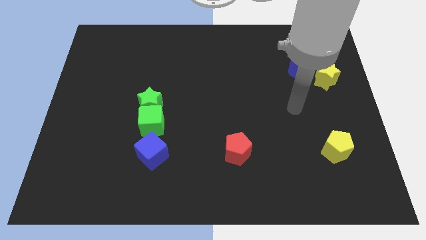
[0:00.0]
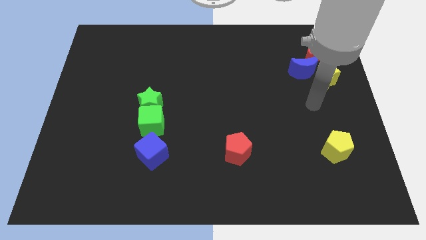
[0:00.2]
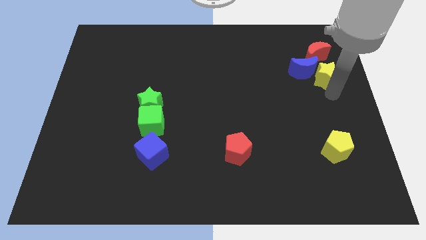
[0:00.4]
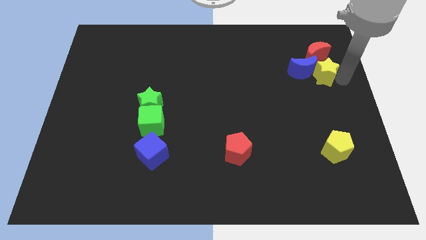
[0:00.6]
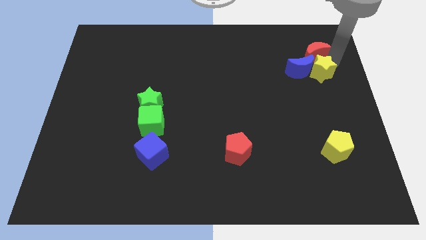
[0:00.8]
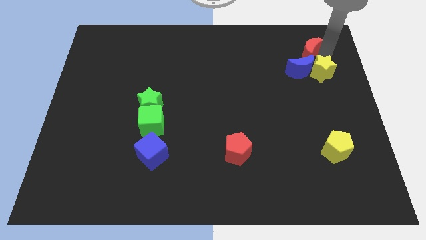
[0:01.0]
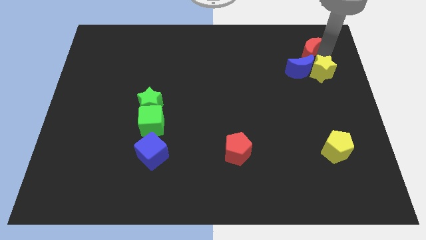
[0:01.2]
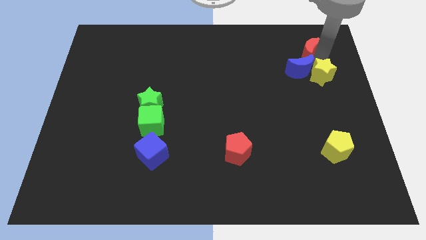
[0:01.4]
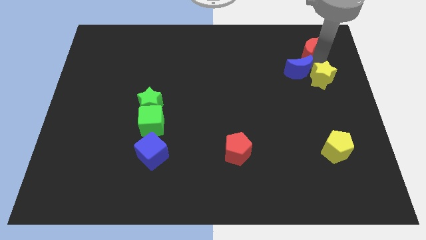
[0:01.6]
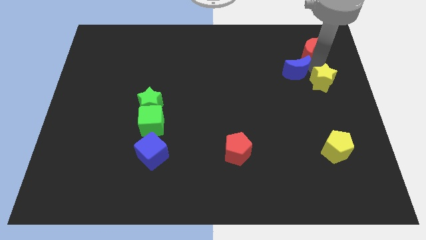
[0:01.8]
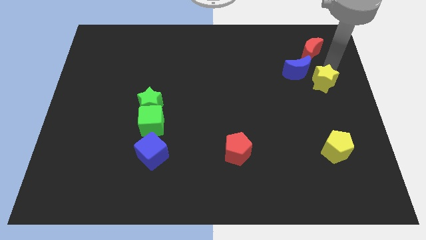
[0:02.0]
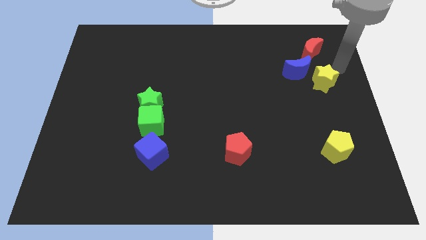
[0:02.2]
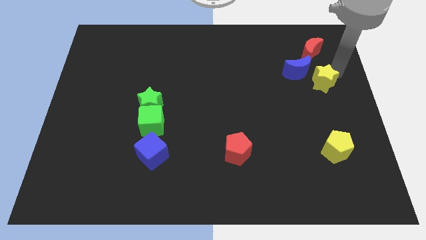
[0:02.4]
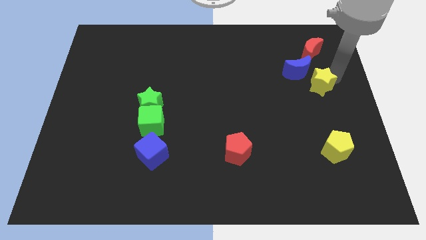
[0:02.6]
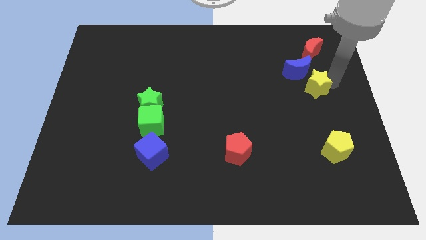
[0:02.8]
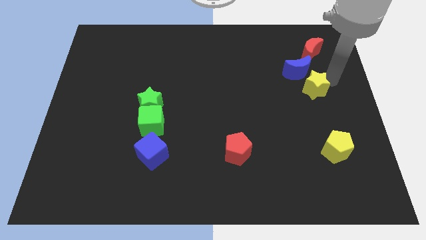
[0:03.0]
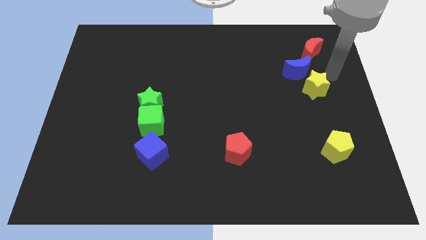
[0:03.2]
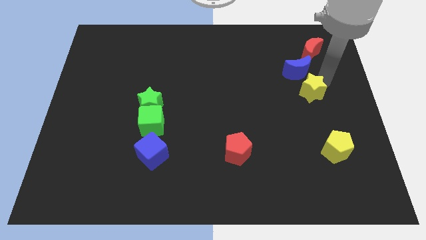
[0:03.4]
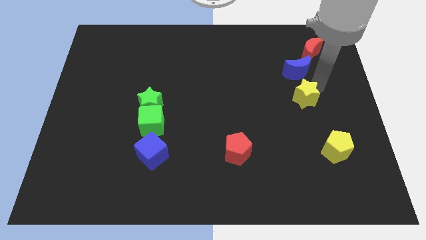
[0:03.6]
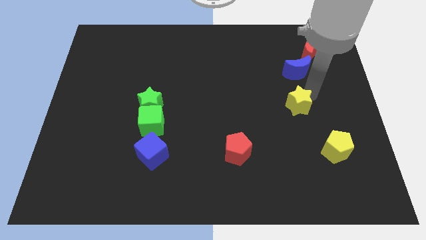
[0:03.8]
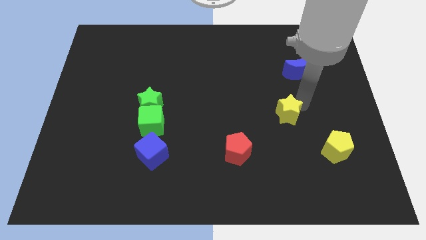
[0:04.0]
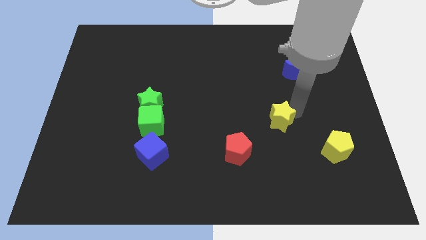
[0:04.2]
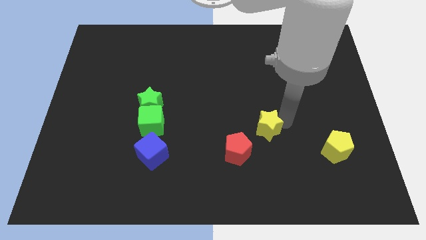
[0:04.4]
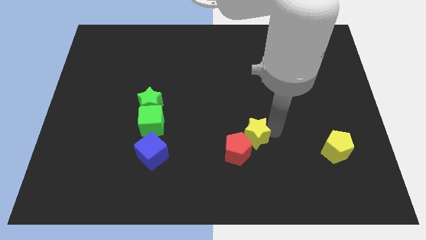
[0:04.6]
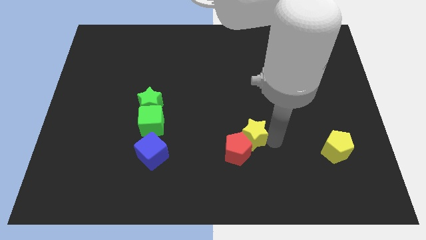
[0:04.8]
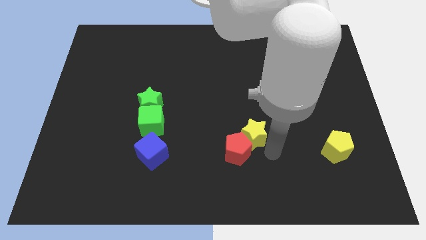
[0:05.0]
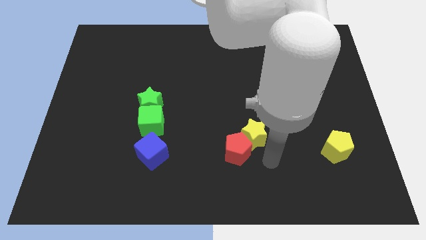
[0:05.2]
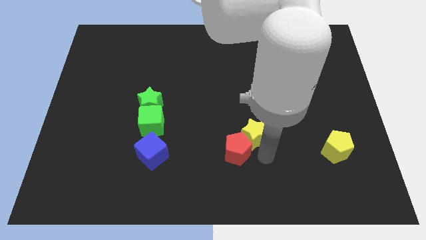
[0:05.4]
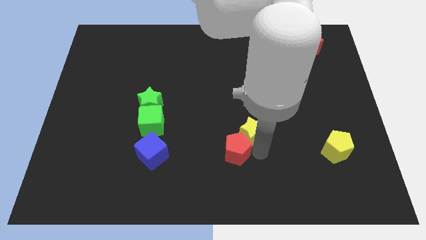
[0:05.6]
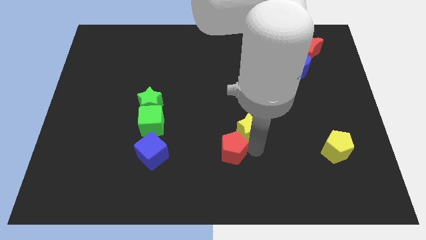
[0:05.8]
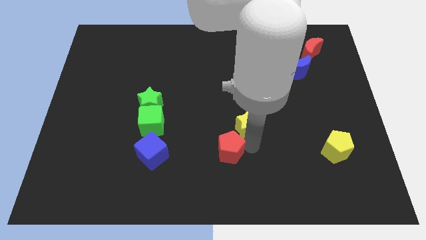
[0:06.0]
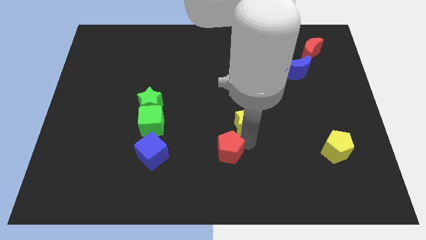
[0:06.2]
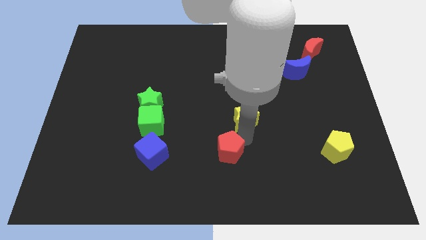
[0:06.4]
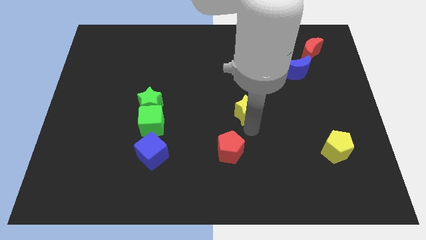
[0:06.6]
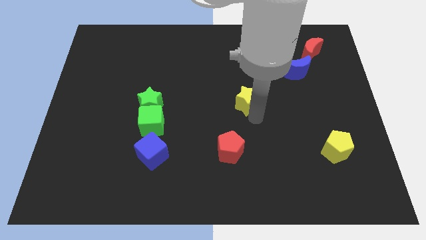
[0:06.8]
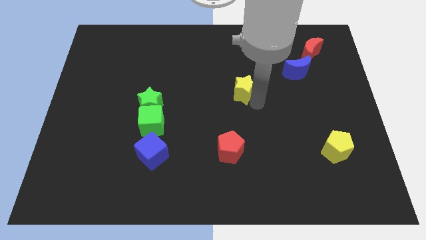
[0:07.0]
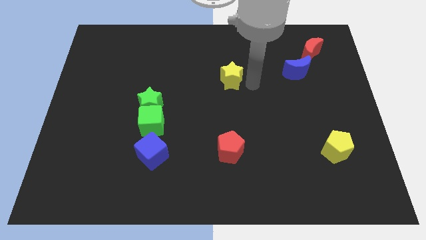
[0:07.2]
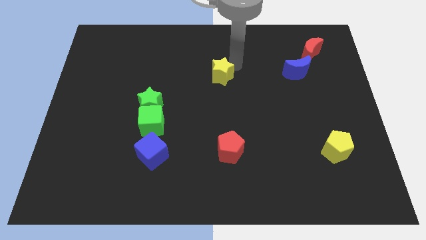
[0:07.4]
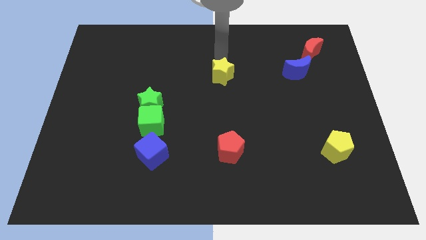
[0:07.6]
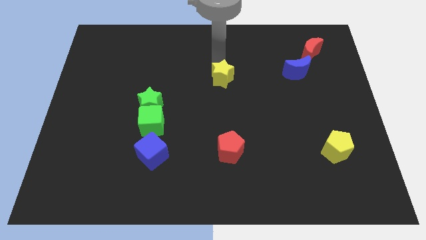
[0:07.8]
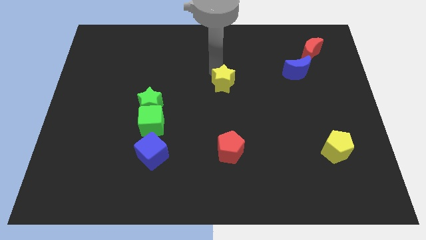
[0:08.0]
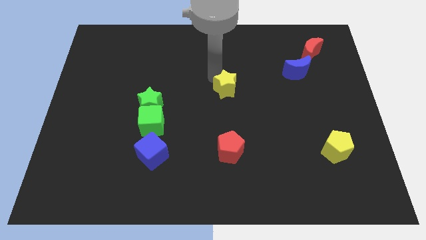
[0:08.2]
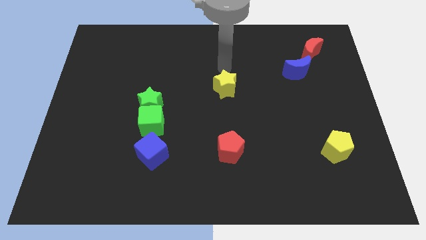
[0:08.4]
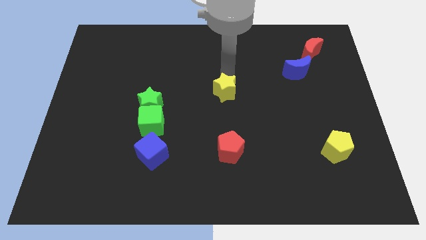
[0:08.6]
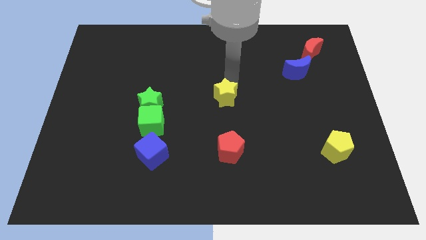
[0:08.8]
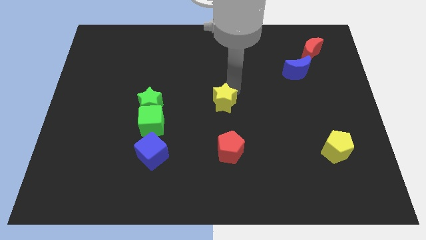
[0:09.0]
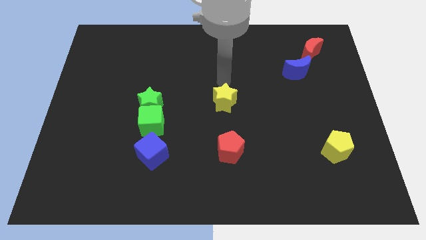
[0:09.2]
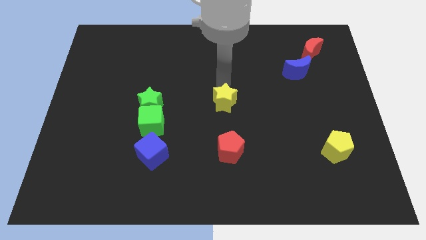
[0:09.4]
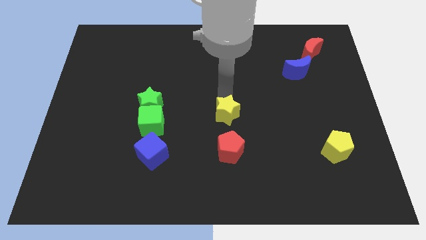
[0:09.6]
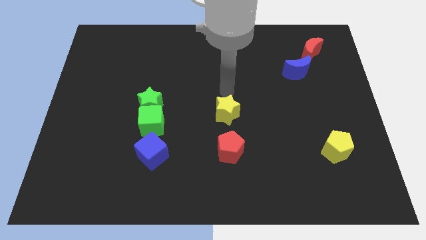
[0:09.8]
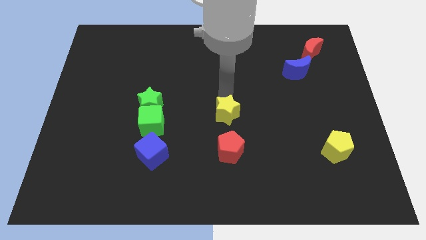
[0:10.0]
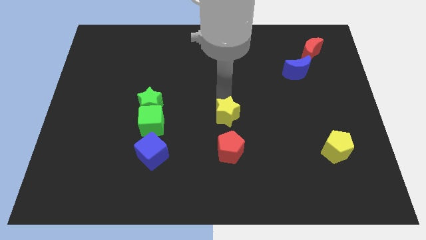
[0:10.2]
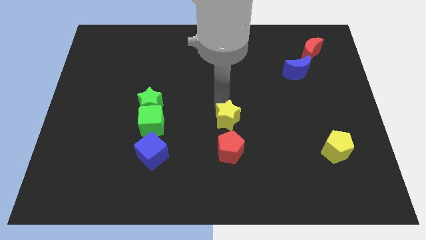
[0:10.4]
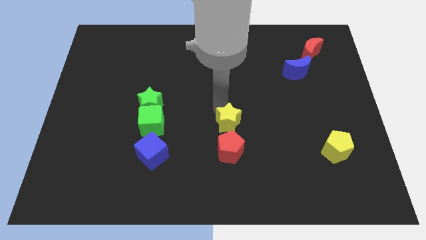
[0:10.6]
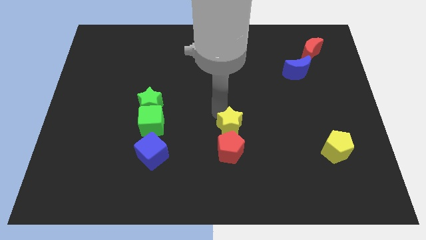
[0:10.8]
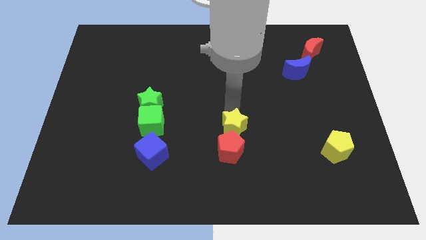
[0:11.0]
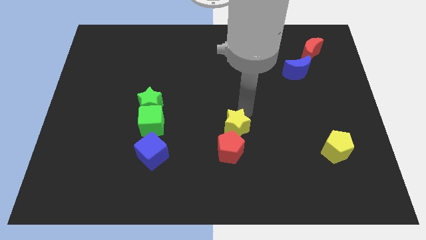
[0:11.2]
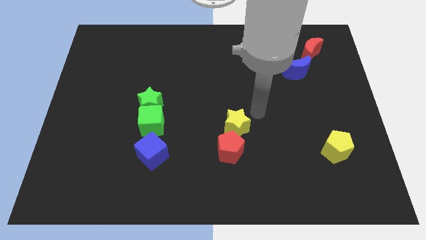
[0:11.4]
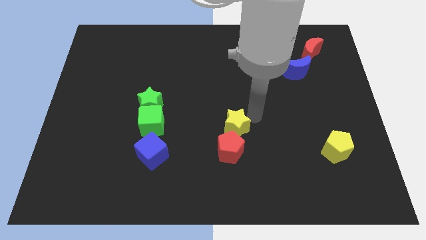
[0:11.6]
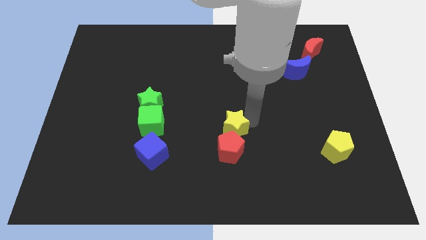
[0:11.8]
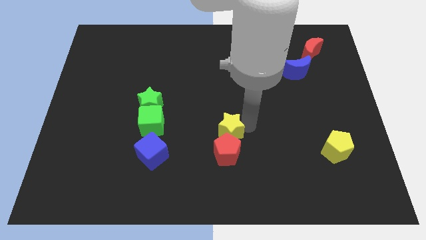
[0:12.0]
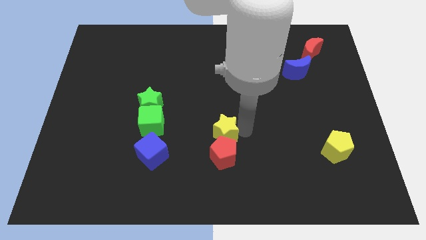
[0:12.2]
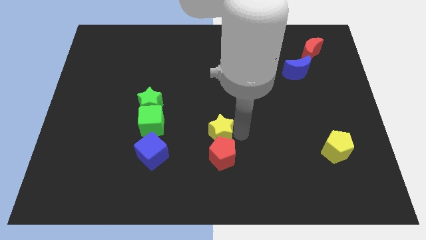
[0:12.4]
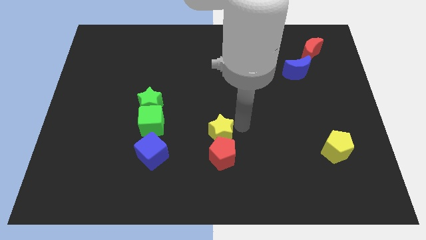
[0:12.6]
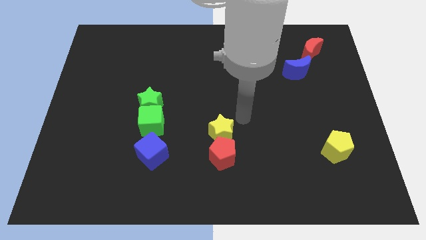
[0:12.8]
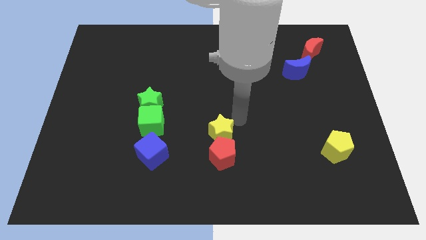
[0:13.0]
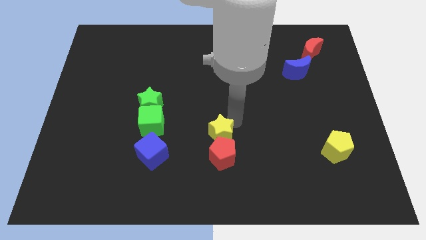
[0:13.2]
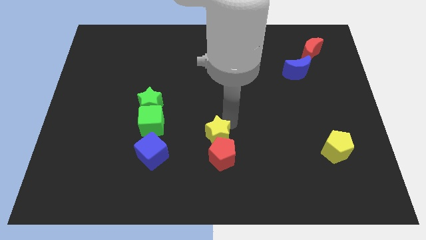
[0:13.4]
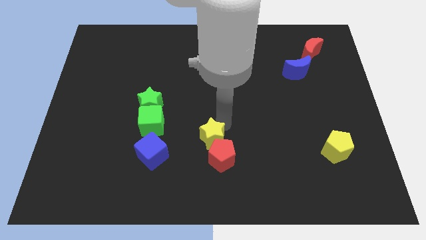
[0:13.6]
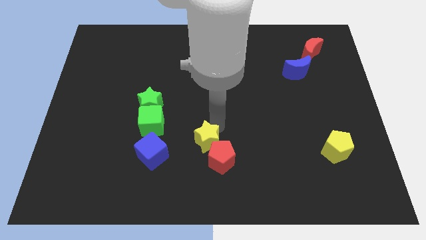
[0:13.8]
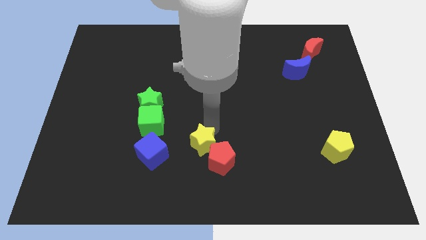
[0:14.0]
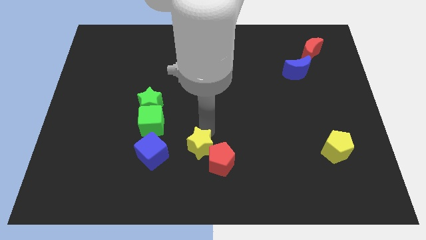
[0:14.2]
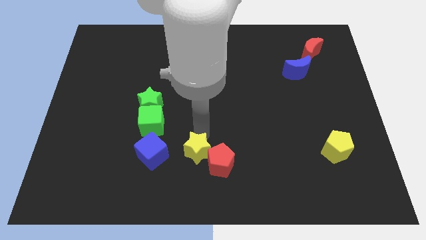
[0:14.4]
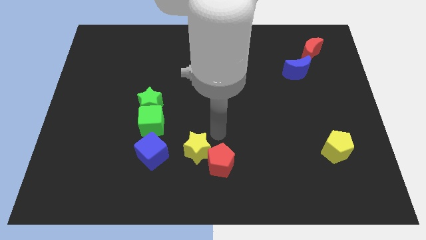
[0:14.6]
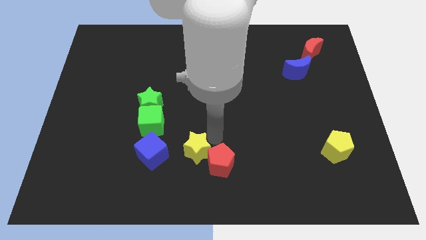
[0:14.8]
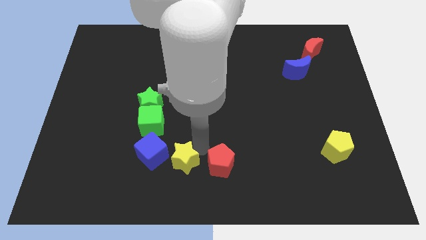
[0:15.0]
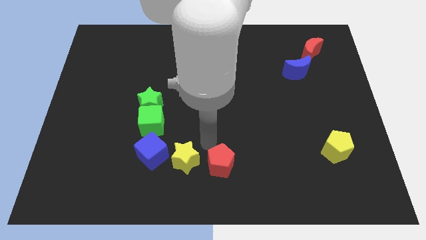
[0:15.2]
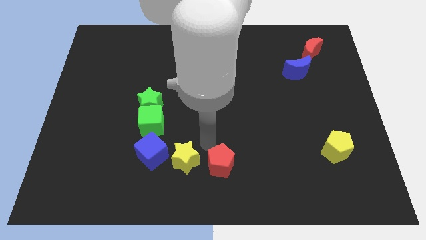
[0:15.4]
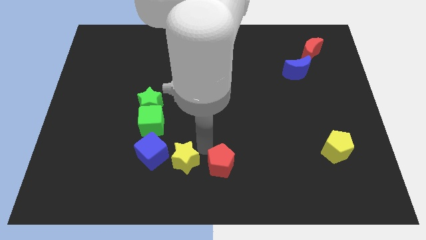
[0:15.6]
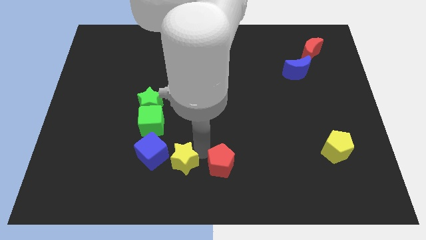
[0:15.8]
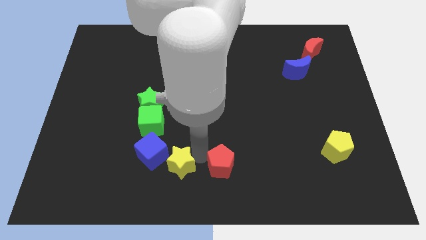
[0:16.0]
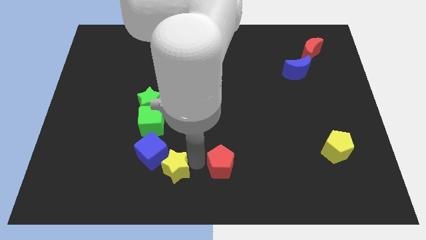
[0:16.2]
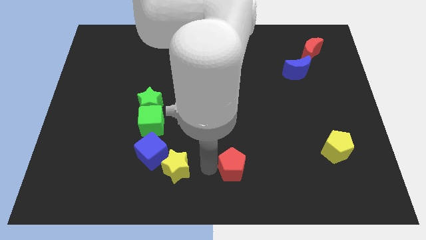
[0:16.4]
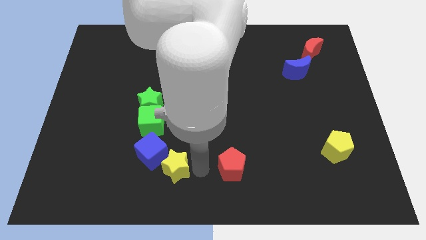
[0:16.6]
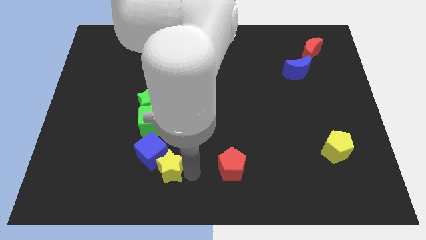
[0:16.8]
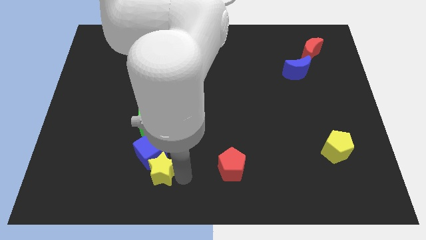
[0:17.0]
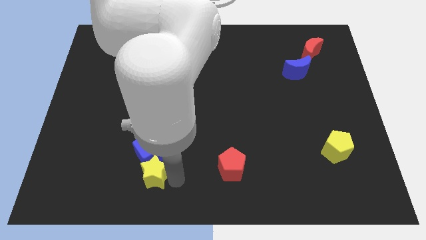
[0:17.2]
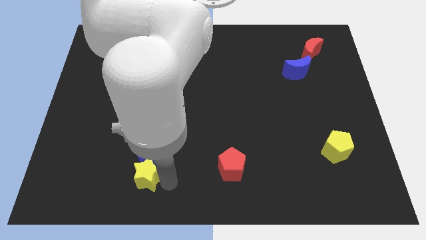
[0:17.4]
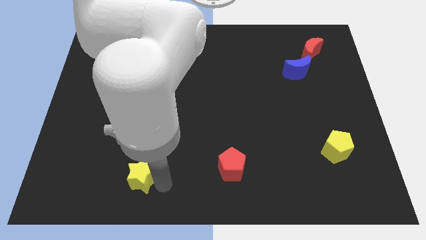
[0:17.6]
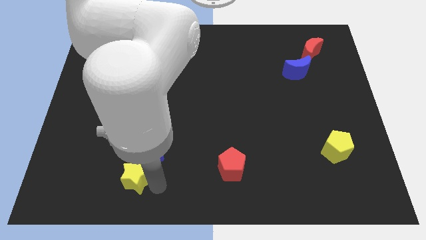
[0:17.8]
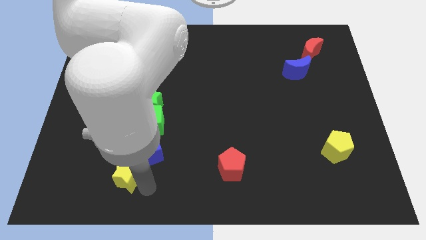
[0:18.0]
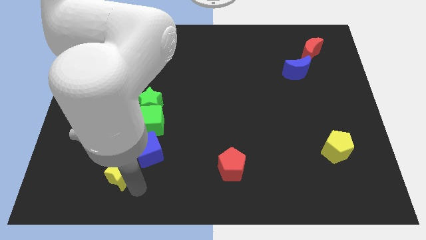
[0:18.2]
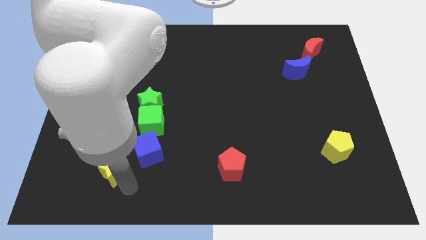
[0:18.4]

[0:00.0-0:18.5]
slide the yellow star to the left side of the blue cube
